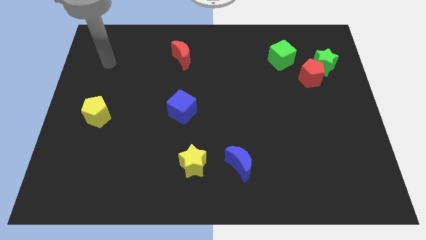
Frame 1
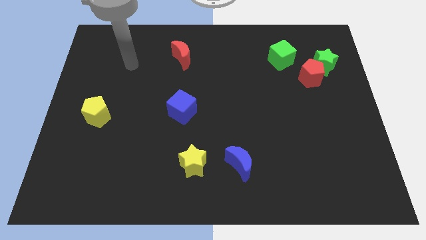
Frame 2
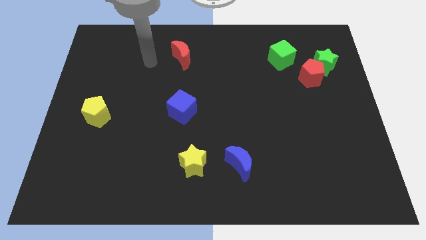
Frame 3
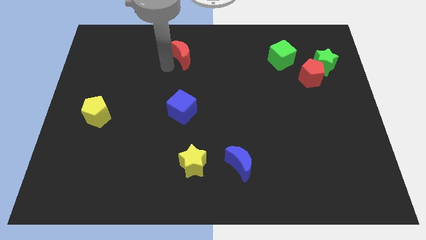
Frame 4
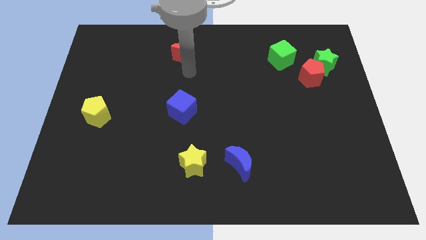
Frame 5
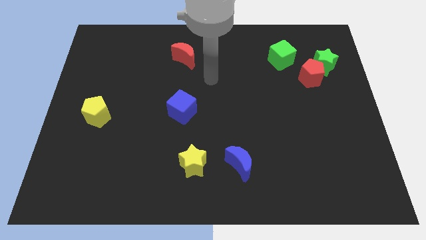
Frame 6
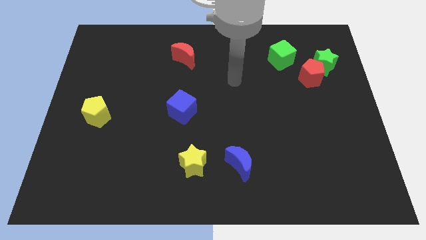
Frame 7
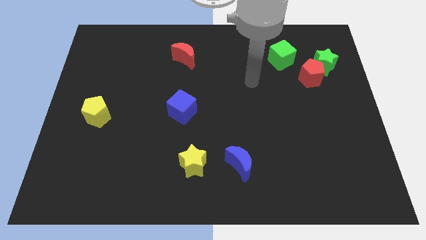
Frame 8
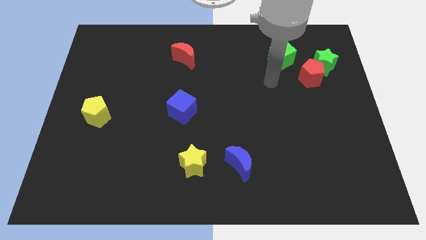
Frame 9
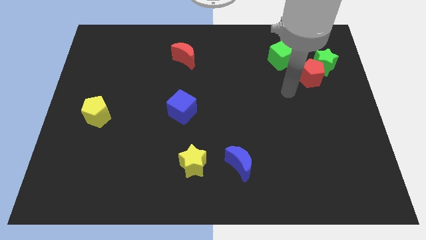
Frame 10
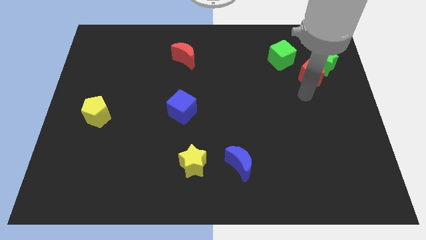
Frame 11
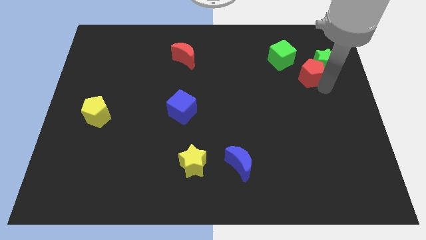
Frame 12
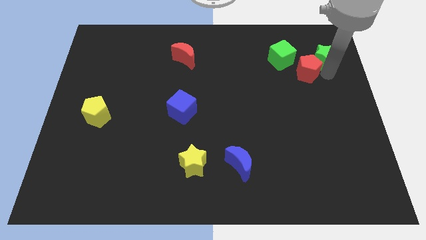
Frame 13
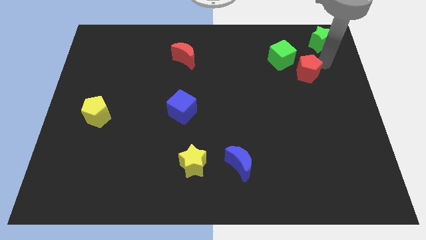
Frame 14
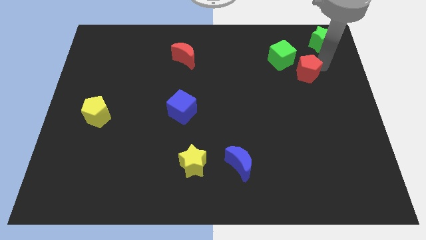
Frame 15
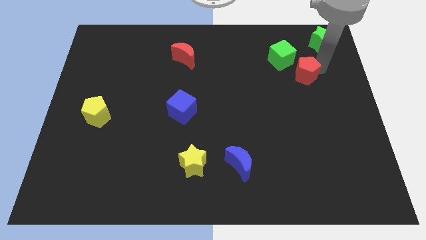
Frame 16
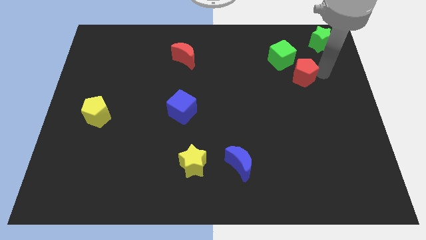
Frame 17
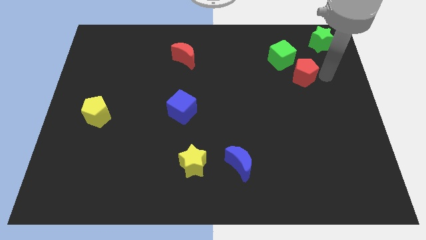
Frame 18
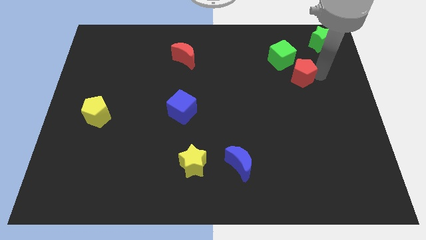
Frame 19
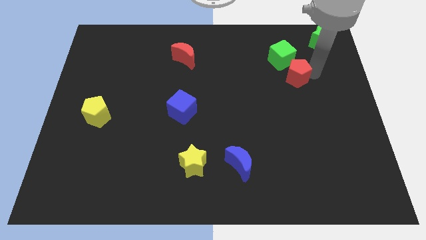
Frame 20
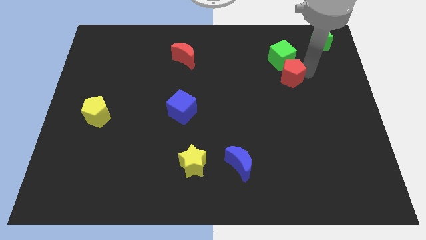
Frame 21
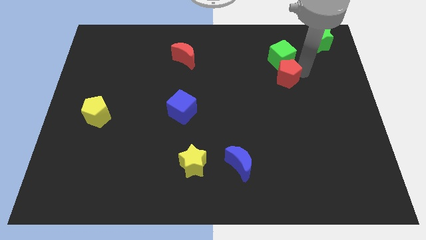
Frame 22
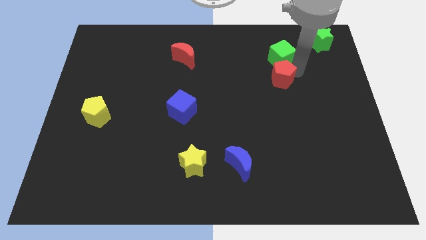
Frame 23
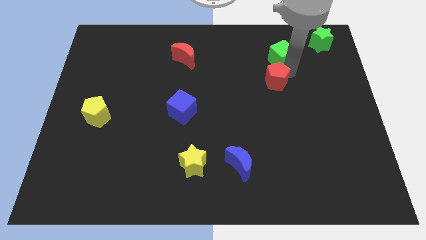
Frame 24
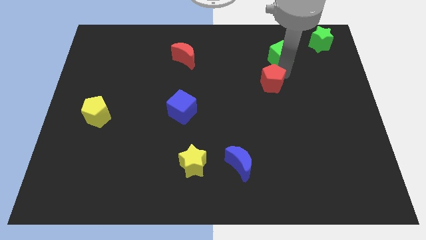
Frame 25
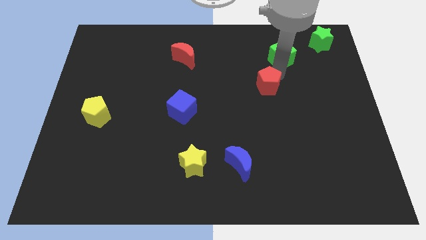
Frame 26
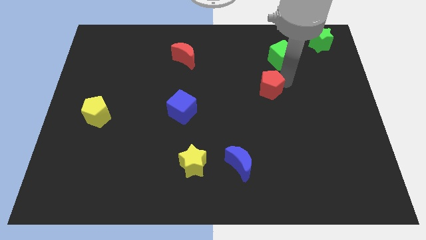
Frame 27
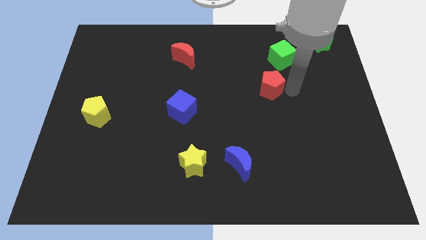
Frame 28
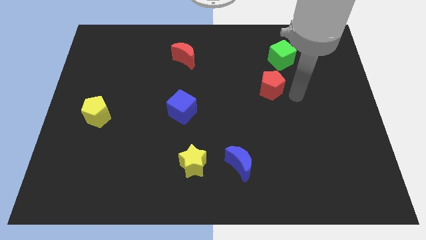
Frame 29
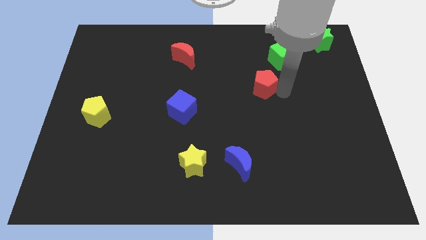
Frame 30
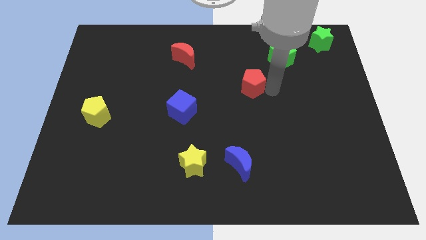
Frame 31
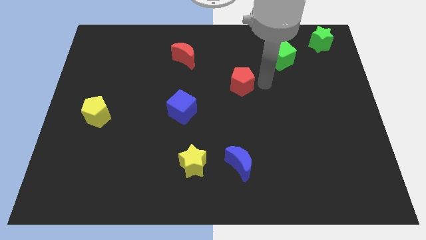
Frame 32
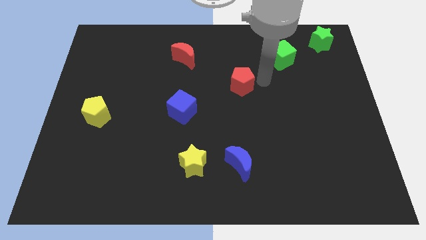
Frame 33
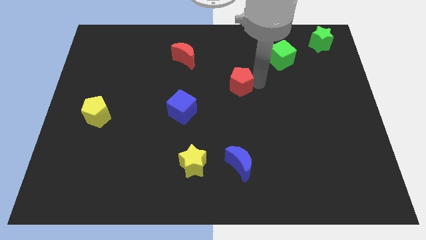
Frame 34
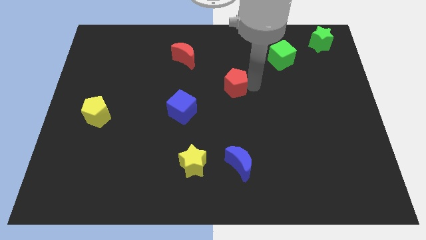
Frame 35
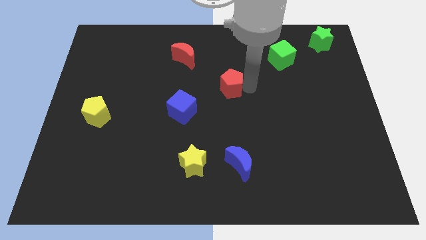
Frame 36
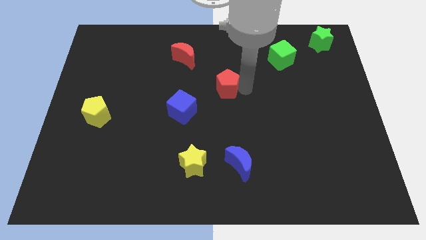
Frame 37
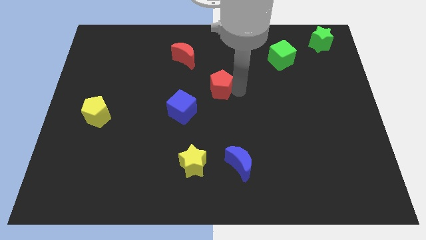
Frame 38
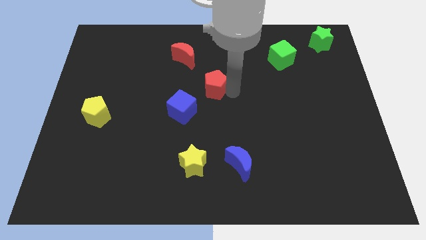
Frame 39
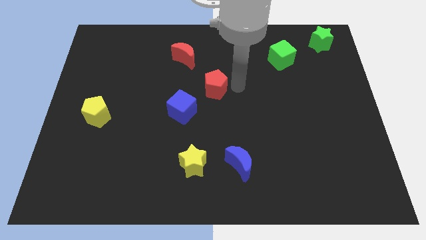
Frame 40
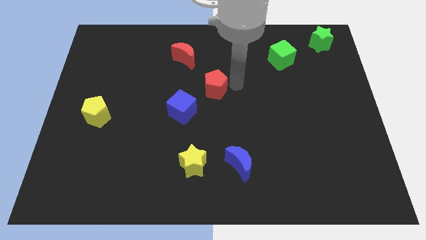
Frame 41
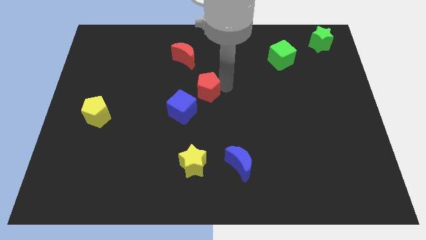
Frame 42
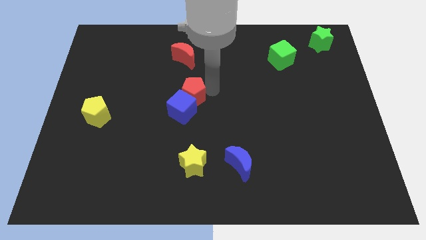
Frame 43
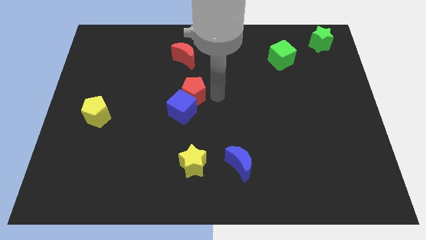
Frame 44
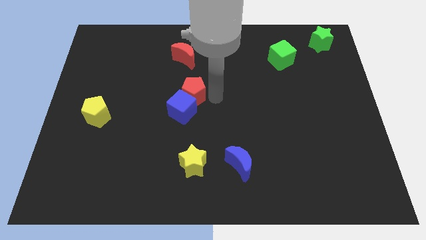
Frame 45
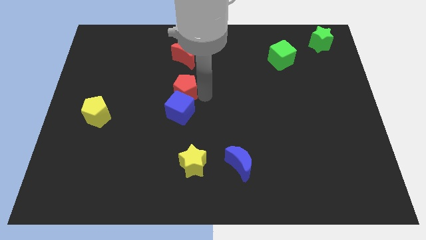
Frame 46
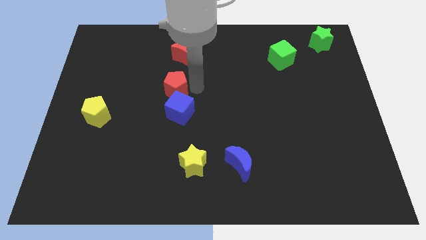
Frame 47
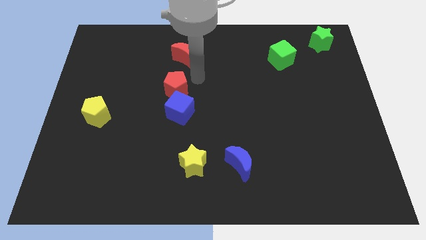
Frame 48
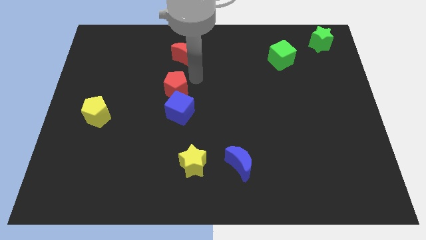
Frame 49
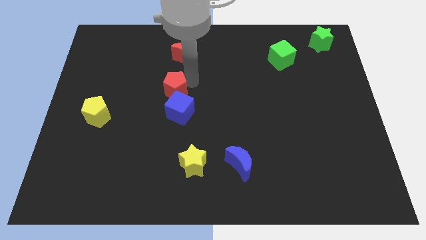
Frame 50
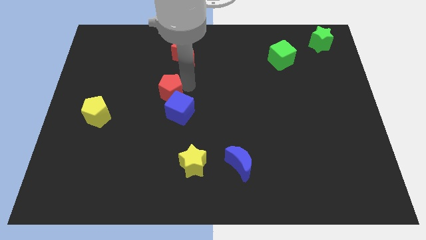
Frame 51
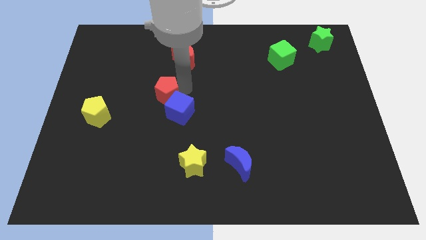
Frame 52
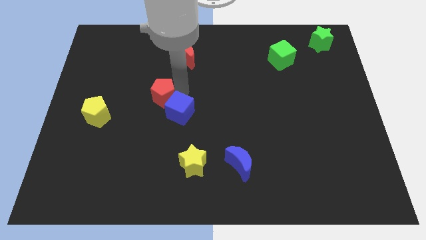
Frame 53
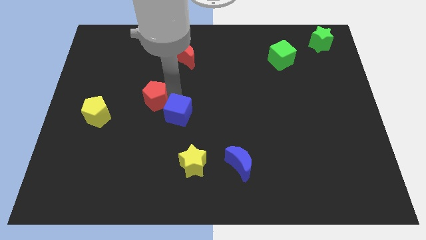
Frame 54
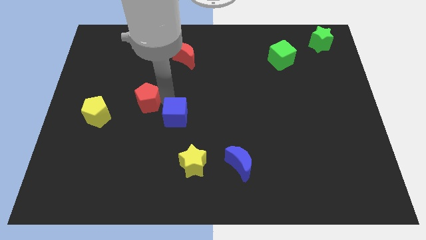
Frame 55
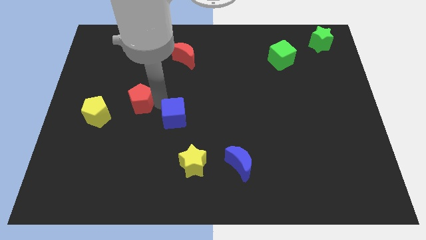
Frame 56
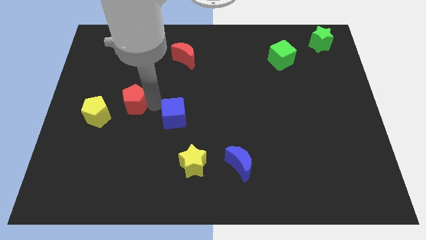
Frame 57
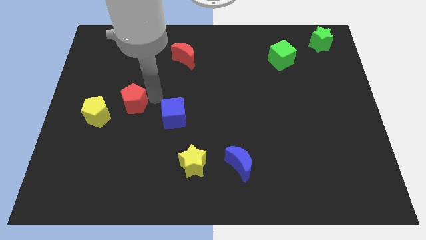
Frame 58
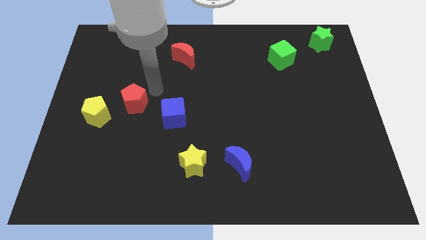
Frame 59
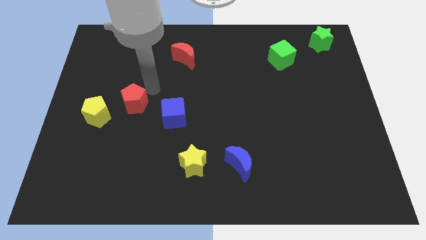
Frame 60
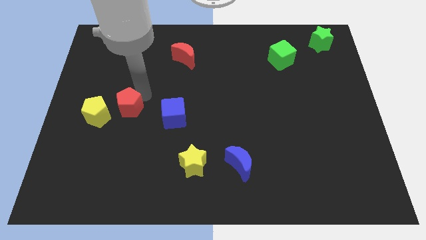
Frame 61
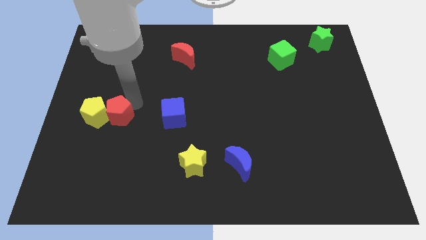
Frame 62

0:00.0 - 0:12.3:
slide the red pentagon to the yellow pentagon

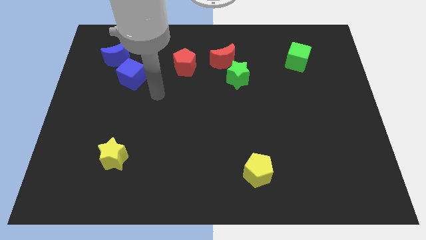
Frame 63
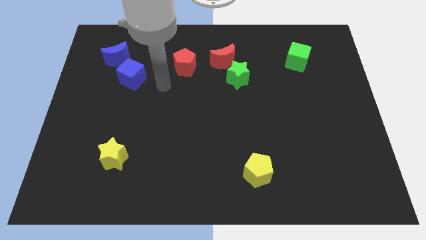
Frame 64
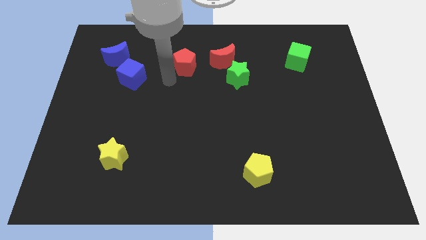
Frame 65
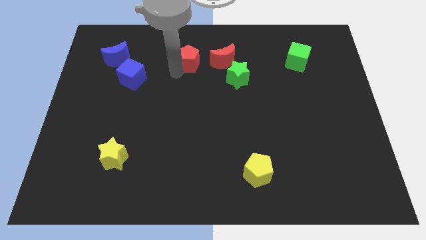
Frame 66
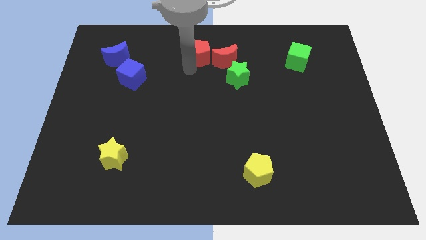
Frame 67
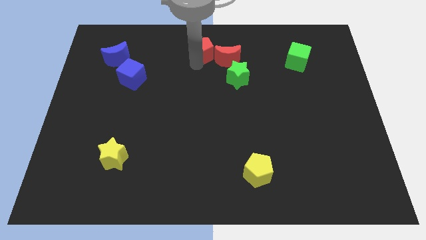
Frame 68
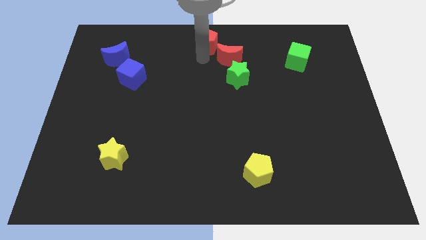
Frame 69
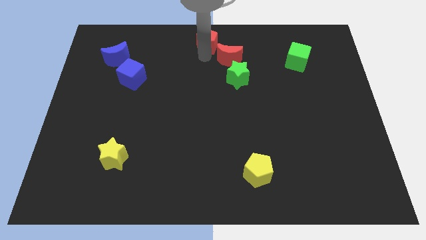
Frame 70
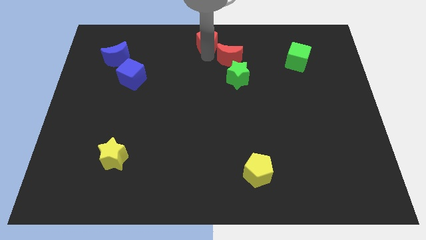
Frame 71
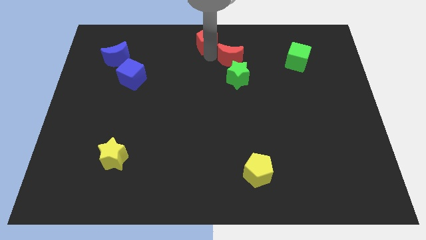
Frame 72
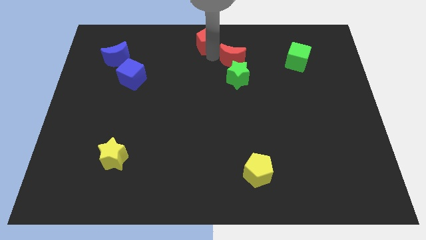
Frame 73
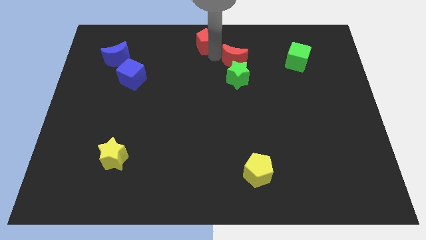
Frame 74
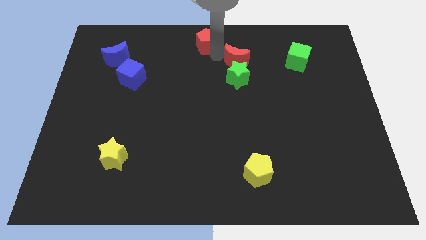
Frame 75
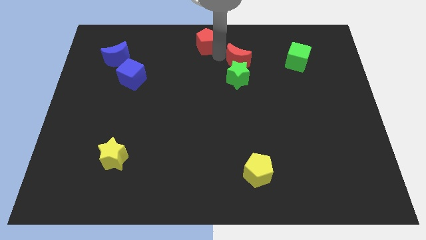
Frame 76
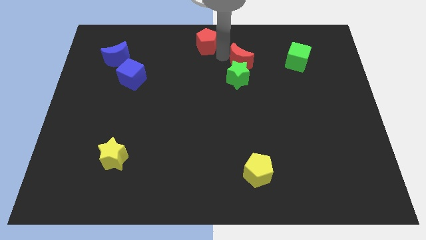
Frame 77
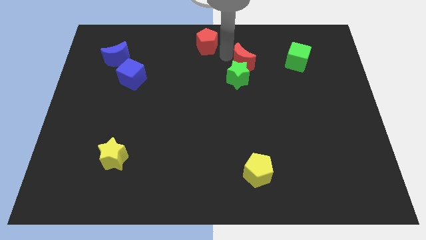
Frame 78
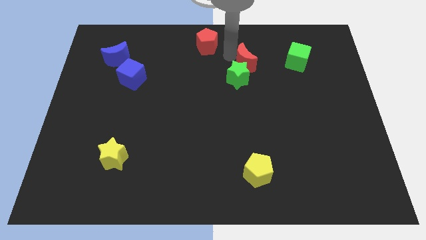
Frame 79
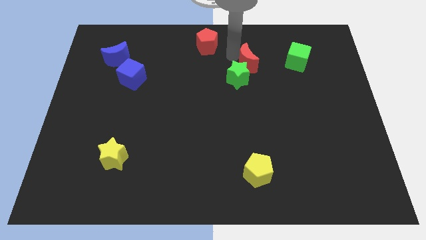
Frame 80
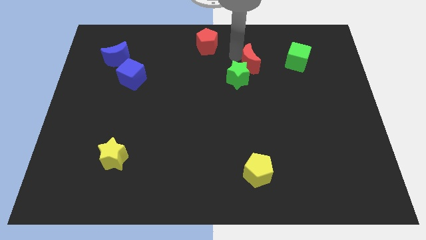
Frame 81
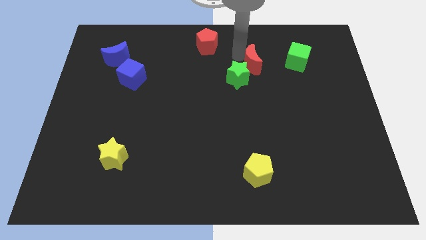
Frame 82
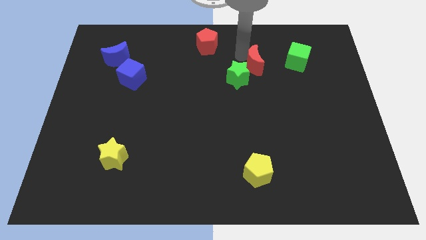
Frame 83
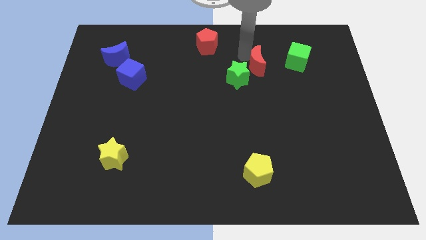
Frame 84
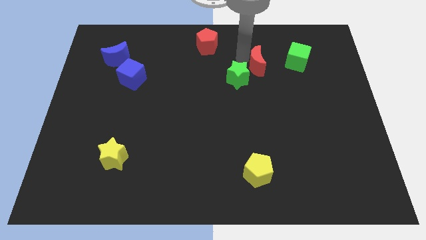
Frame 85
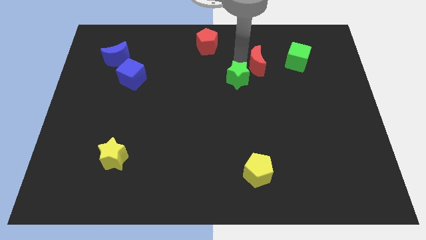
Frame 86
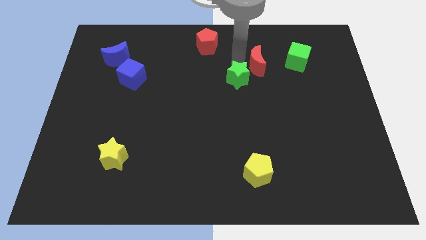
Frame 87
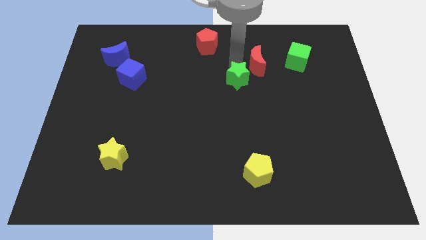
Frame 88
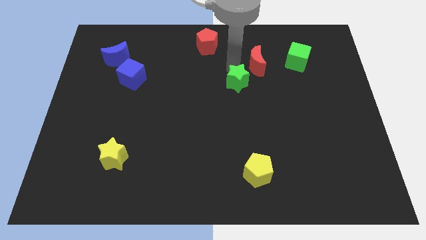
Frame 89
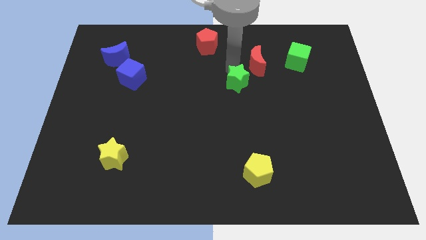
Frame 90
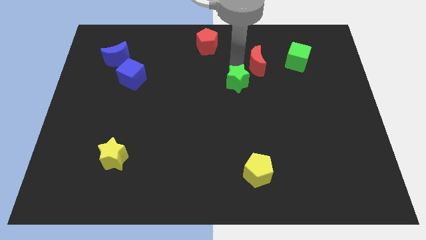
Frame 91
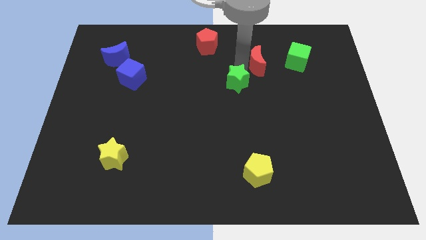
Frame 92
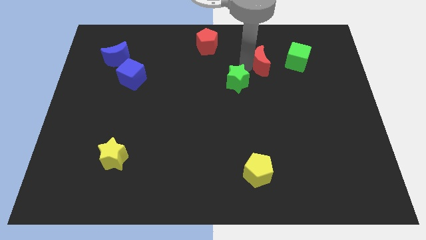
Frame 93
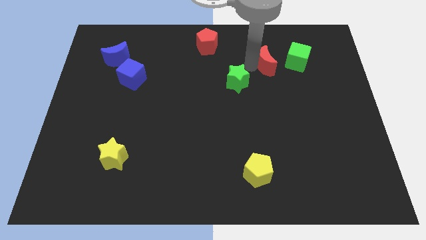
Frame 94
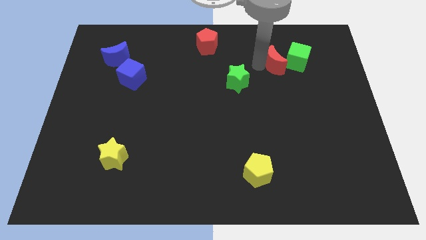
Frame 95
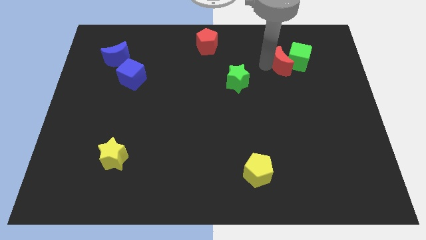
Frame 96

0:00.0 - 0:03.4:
push the red moon towards the green cube
